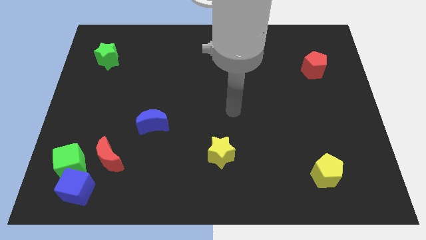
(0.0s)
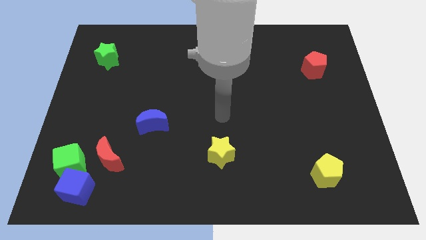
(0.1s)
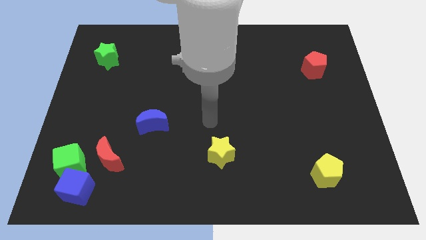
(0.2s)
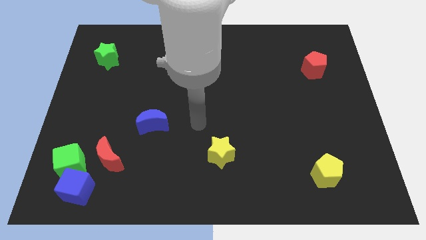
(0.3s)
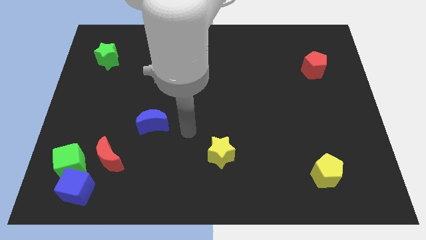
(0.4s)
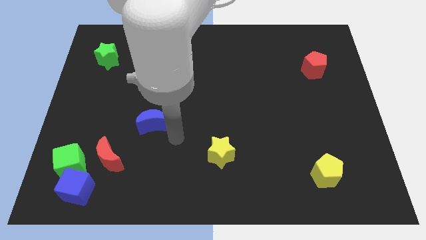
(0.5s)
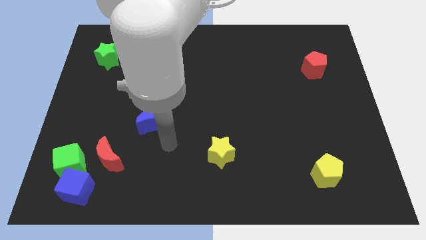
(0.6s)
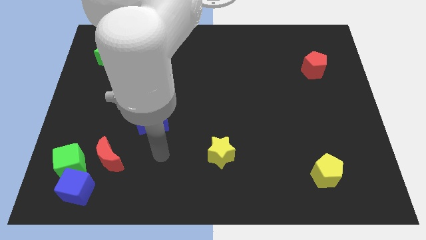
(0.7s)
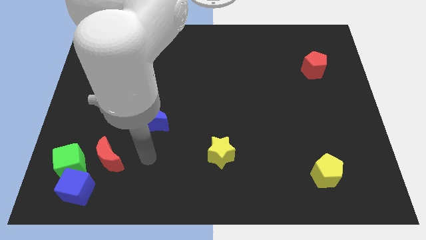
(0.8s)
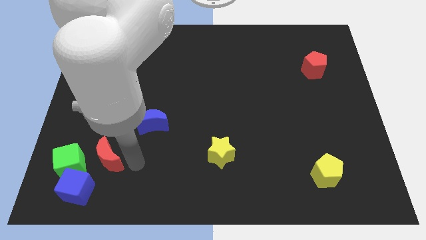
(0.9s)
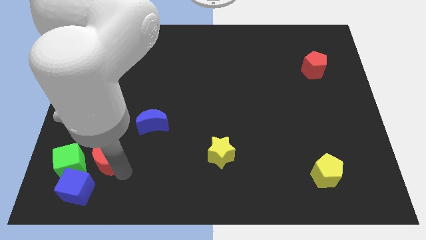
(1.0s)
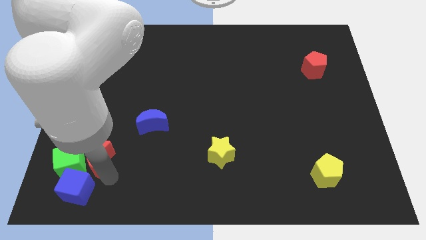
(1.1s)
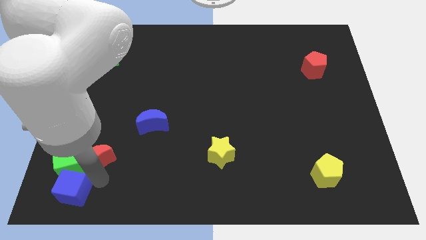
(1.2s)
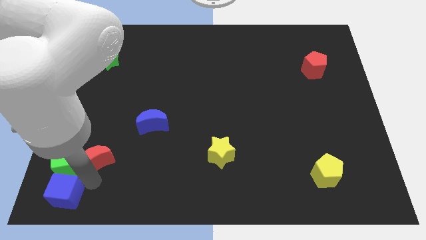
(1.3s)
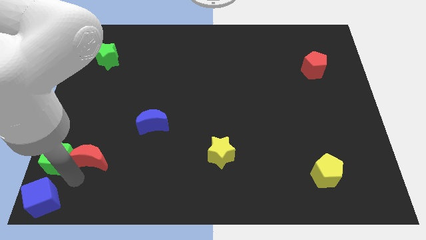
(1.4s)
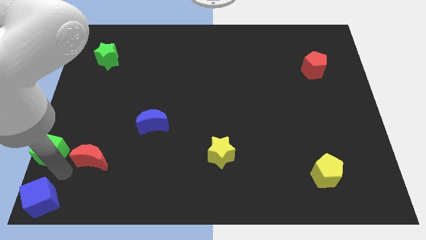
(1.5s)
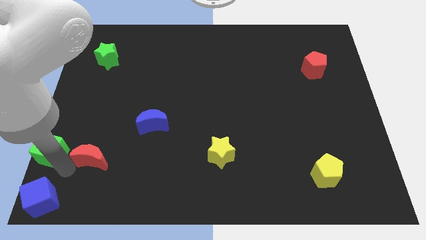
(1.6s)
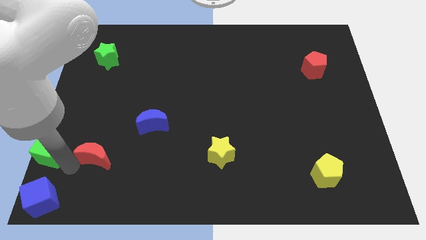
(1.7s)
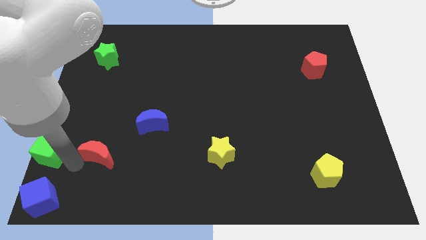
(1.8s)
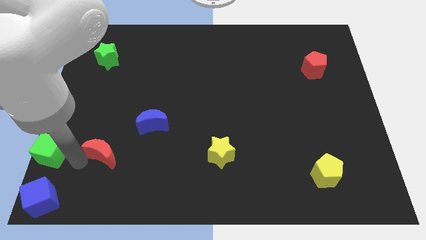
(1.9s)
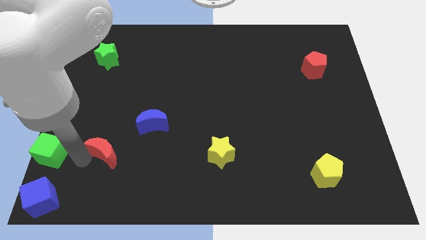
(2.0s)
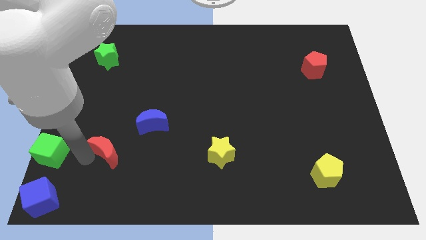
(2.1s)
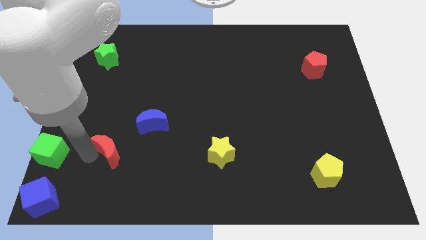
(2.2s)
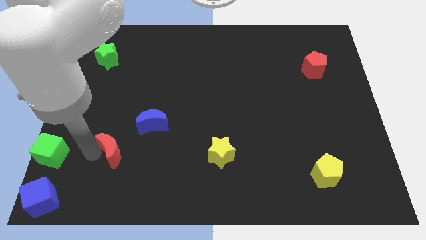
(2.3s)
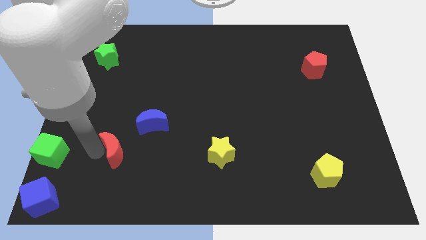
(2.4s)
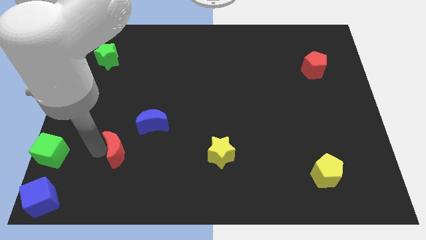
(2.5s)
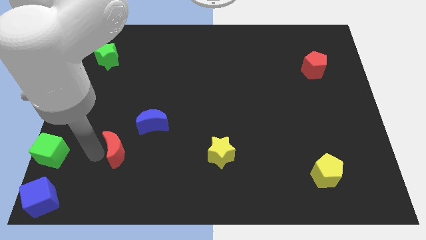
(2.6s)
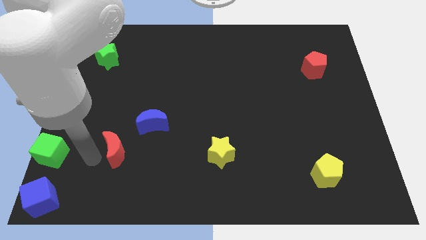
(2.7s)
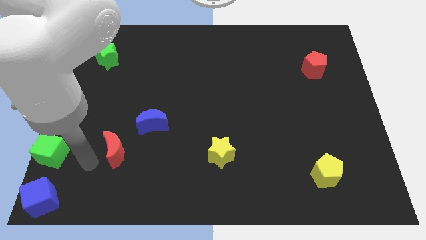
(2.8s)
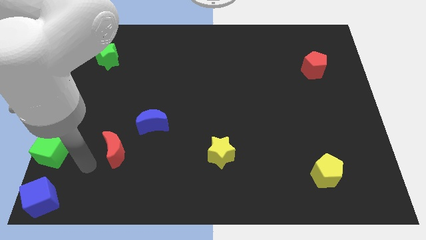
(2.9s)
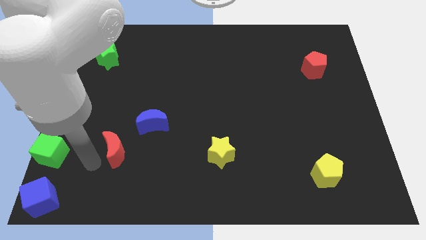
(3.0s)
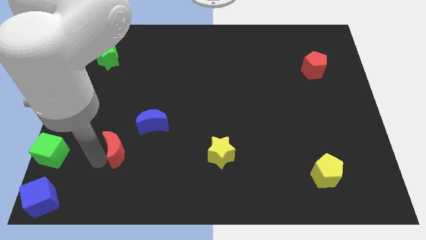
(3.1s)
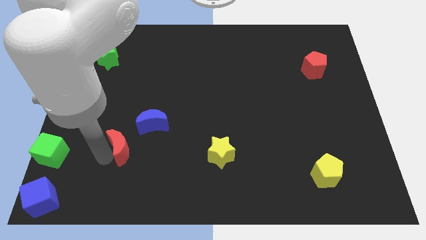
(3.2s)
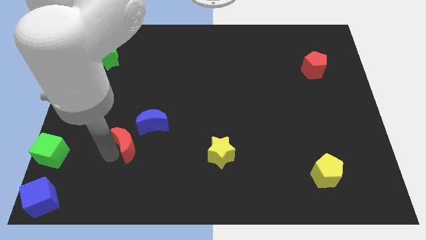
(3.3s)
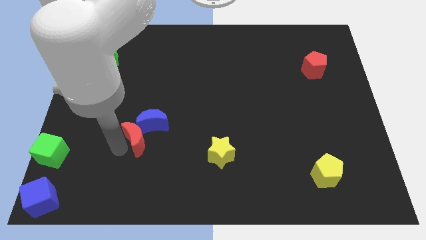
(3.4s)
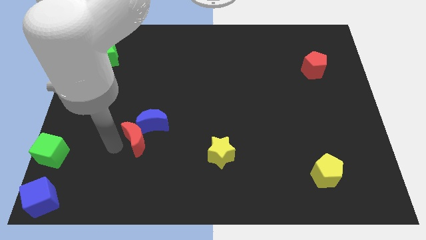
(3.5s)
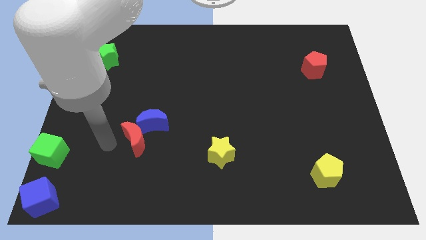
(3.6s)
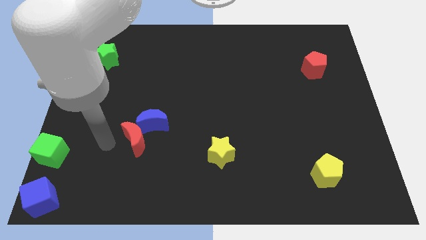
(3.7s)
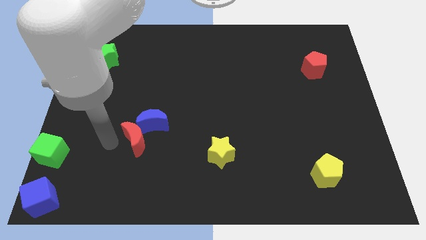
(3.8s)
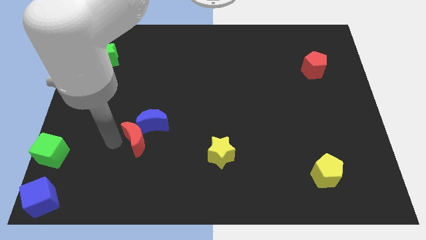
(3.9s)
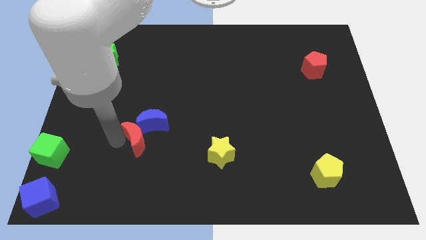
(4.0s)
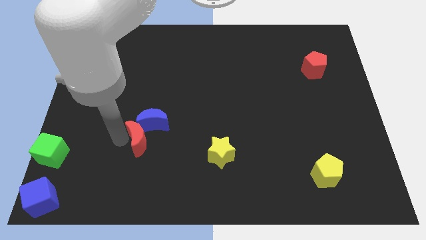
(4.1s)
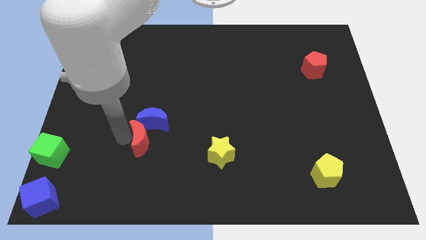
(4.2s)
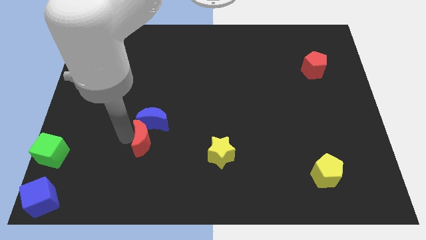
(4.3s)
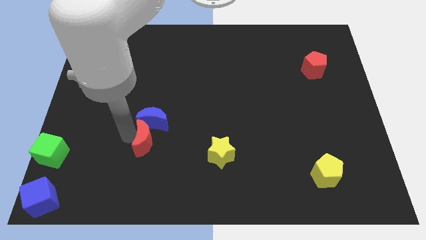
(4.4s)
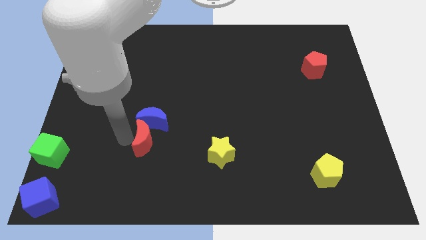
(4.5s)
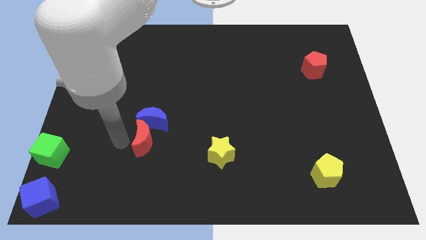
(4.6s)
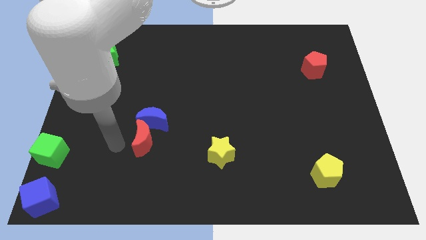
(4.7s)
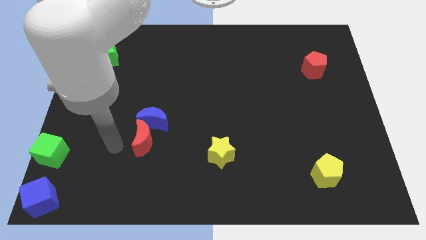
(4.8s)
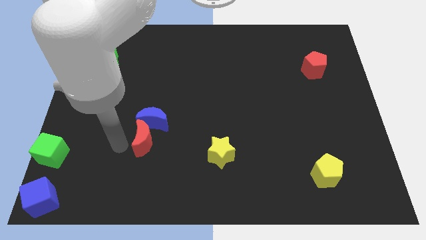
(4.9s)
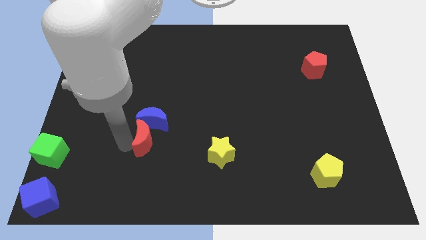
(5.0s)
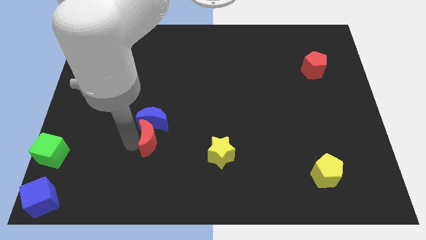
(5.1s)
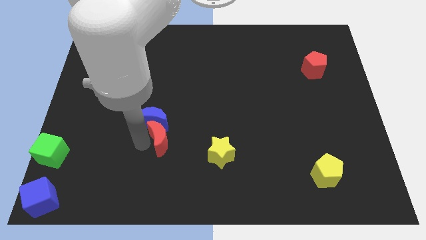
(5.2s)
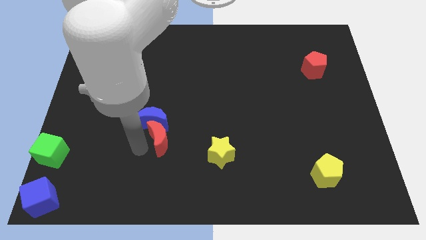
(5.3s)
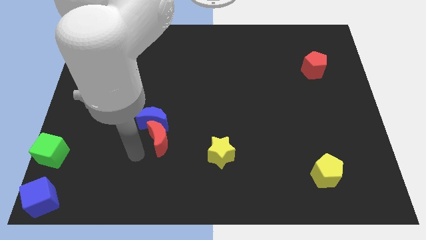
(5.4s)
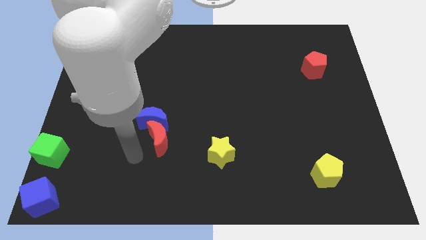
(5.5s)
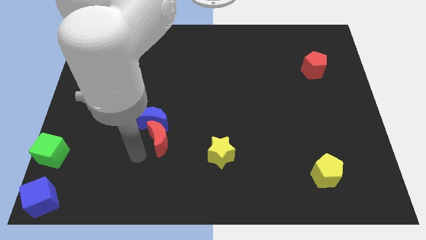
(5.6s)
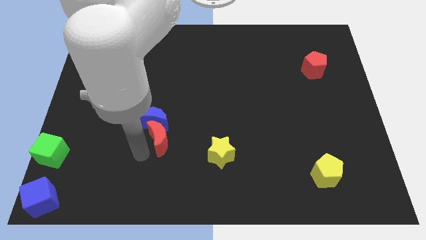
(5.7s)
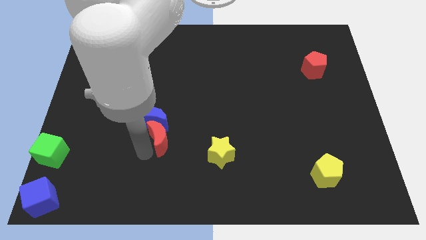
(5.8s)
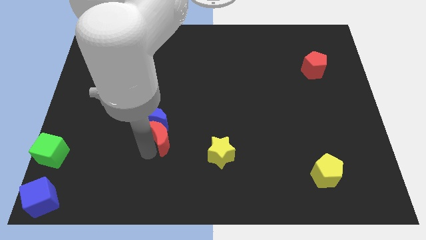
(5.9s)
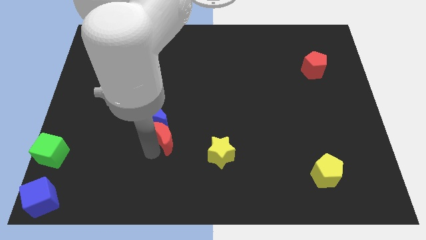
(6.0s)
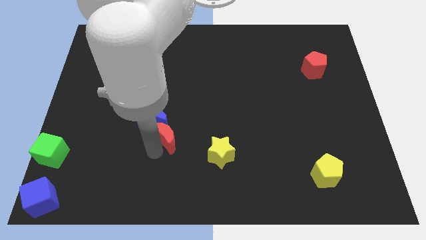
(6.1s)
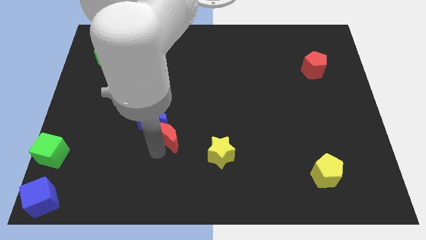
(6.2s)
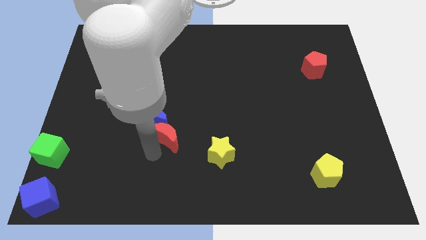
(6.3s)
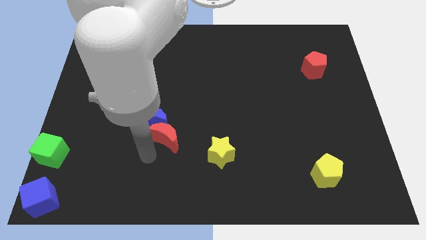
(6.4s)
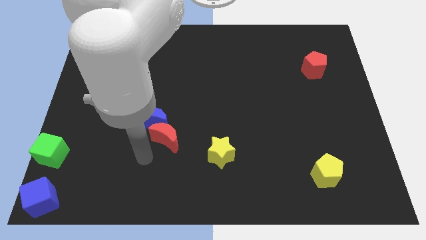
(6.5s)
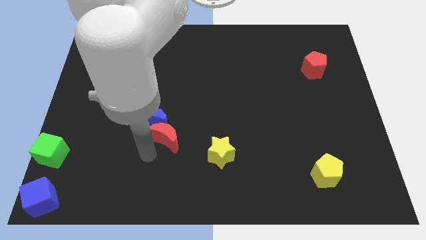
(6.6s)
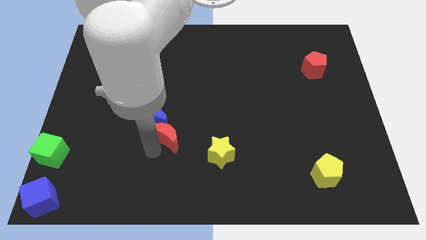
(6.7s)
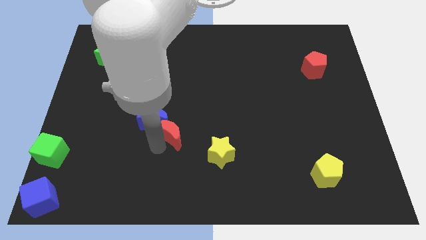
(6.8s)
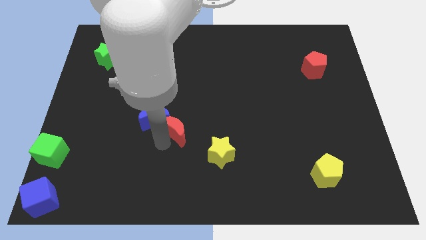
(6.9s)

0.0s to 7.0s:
slide the red moon to the center of the board

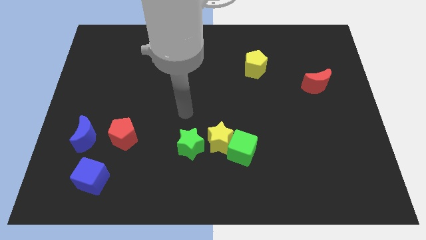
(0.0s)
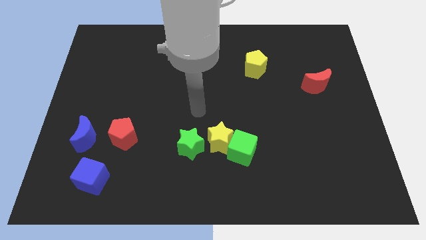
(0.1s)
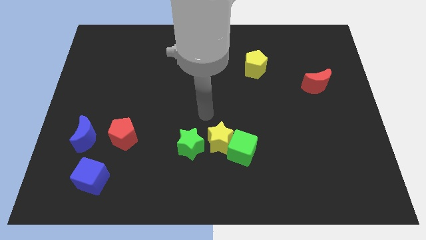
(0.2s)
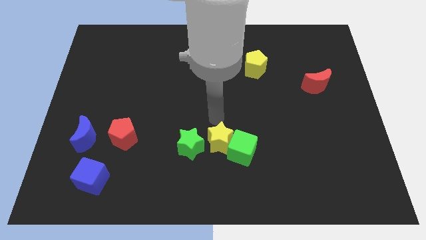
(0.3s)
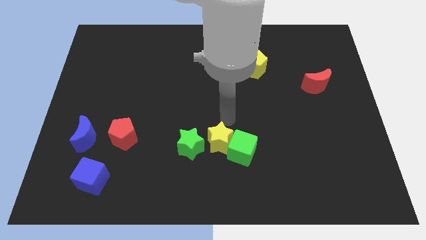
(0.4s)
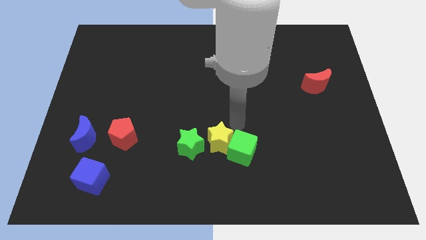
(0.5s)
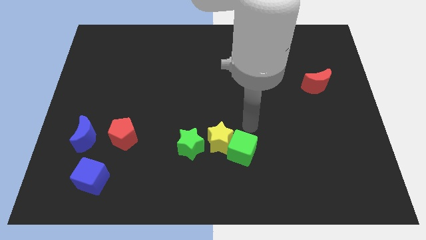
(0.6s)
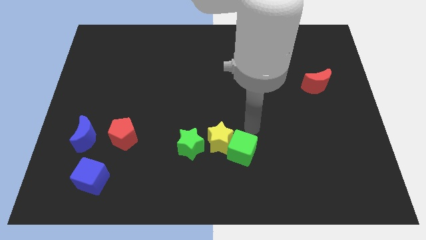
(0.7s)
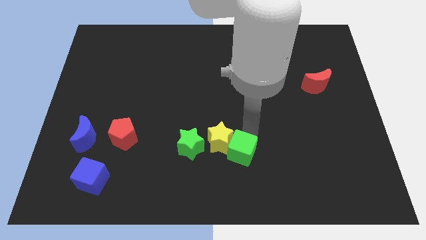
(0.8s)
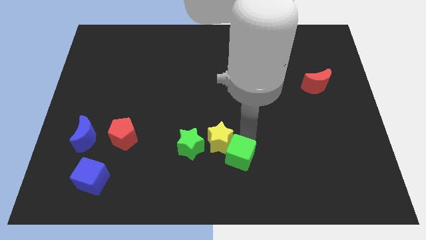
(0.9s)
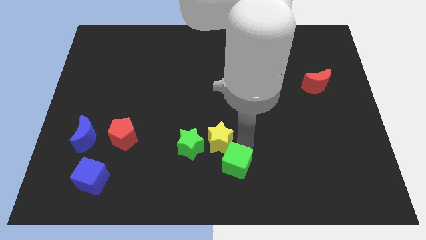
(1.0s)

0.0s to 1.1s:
push the green cube to the bottom
